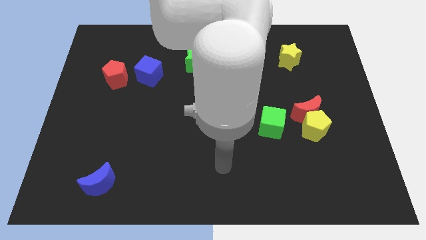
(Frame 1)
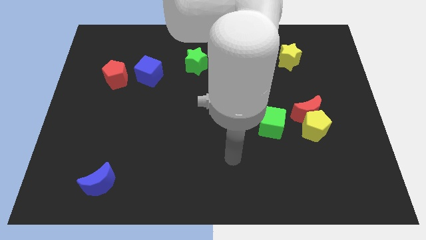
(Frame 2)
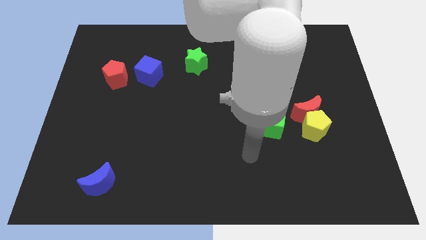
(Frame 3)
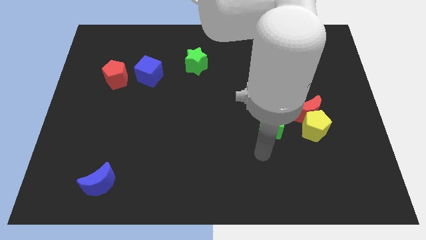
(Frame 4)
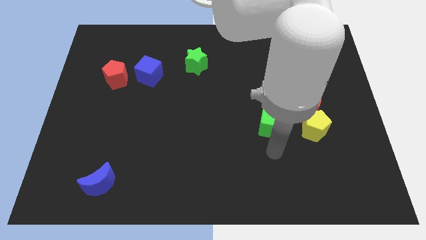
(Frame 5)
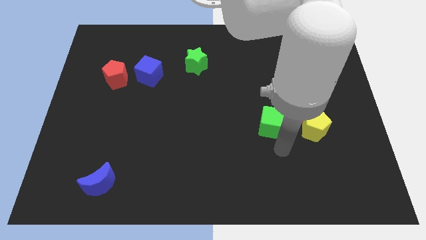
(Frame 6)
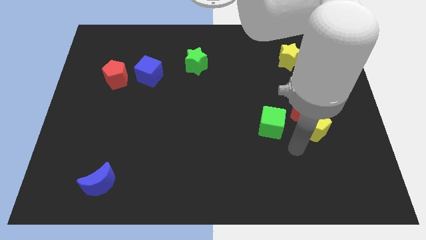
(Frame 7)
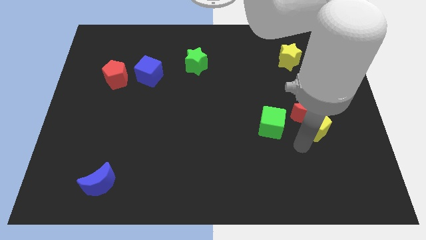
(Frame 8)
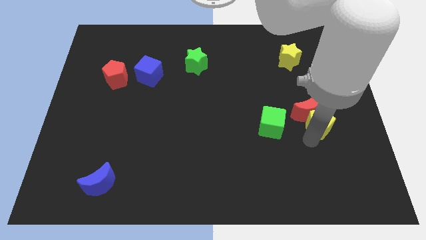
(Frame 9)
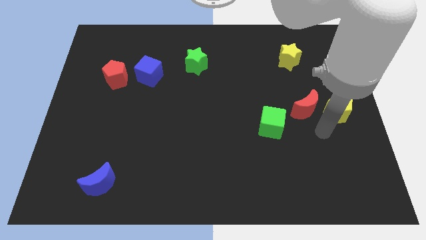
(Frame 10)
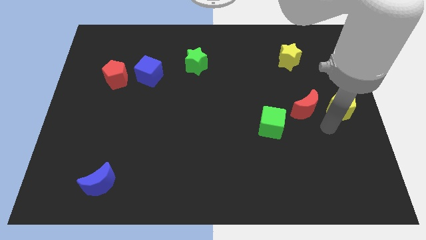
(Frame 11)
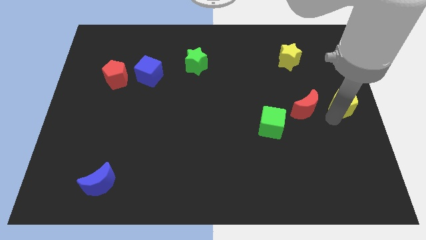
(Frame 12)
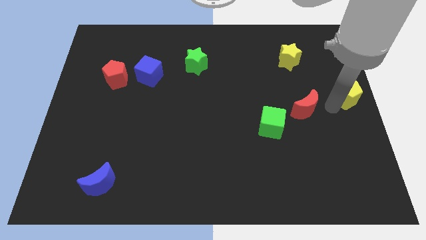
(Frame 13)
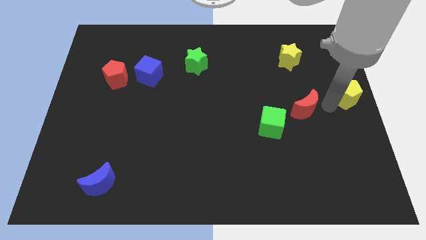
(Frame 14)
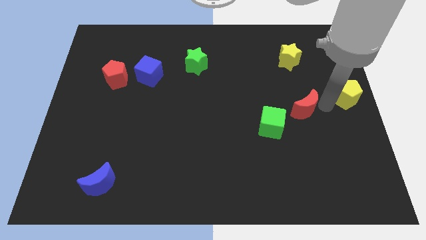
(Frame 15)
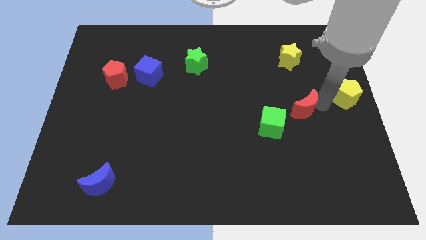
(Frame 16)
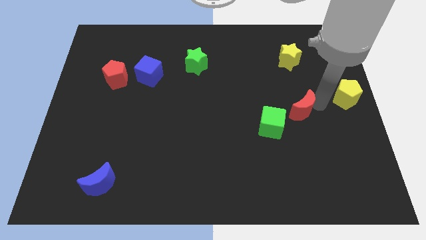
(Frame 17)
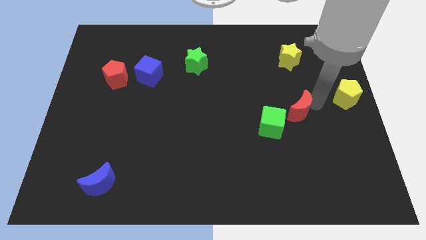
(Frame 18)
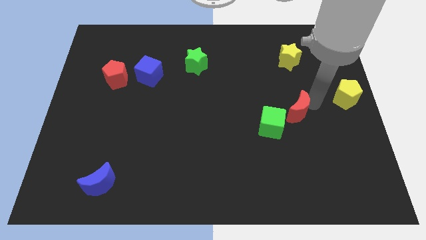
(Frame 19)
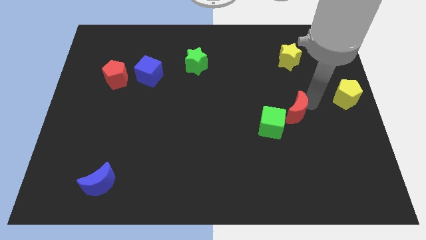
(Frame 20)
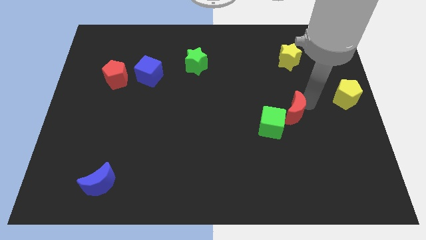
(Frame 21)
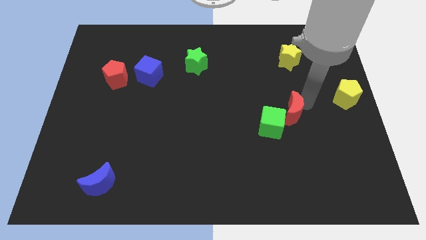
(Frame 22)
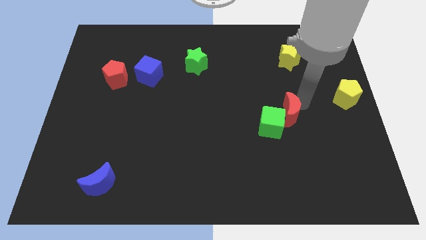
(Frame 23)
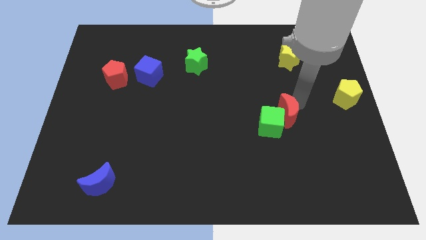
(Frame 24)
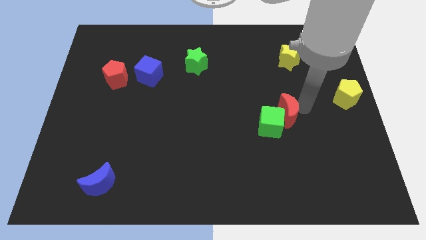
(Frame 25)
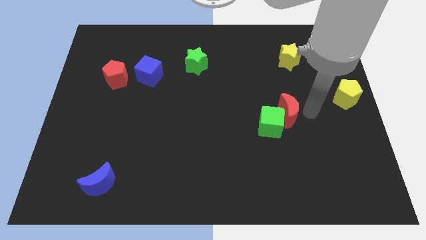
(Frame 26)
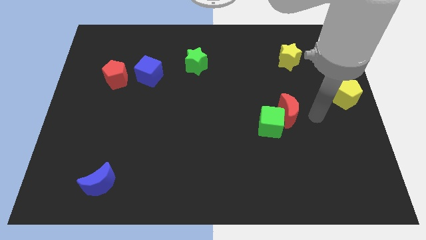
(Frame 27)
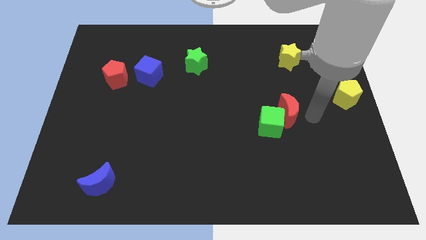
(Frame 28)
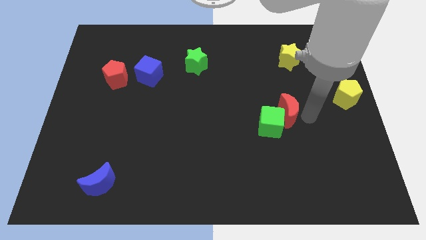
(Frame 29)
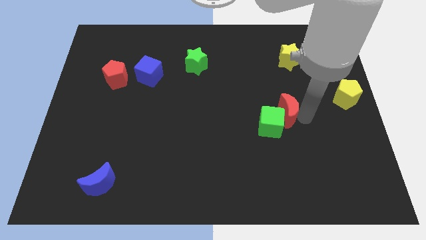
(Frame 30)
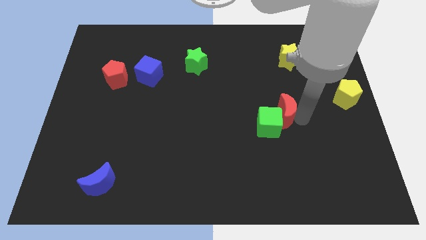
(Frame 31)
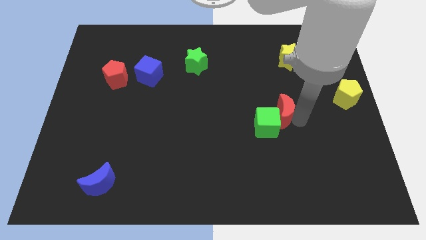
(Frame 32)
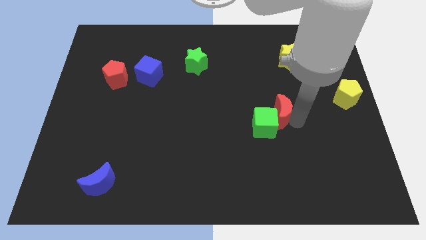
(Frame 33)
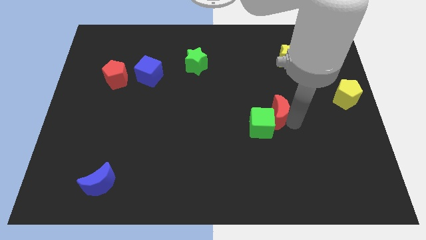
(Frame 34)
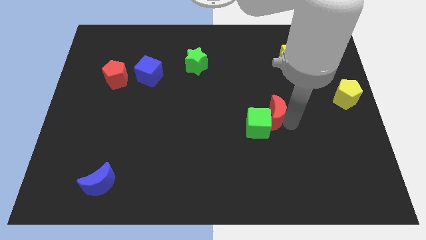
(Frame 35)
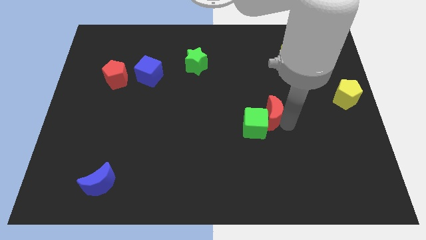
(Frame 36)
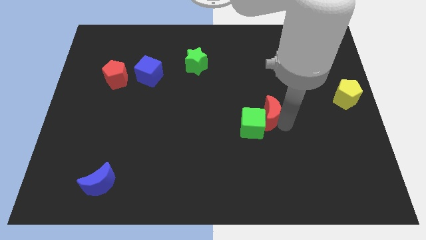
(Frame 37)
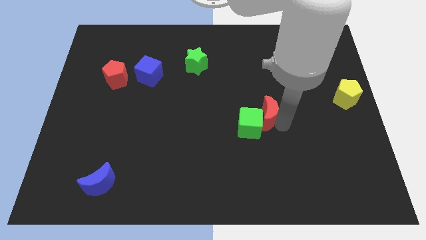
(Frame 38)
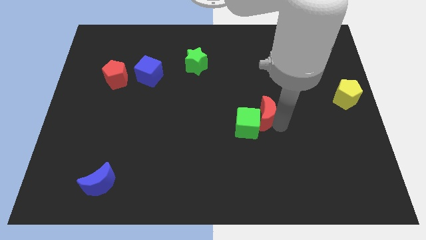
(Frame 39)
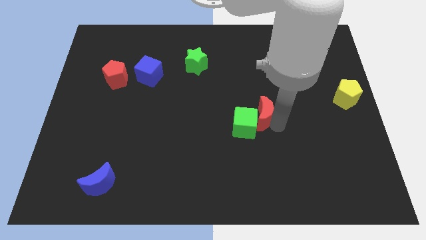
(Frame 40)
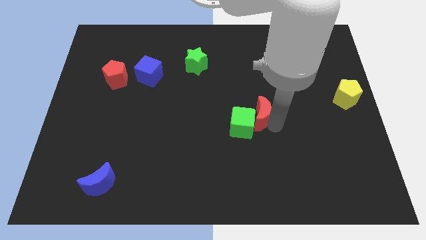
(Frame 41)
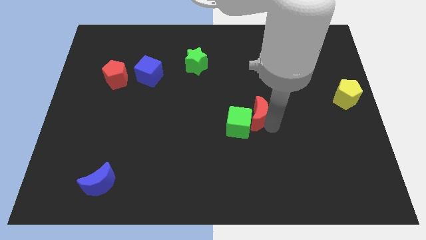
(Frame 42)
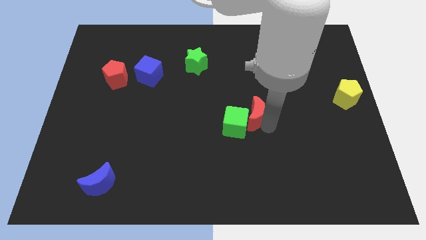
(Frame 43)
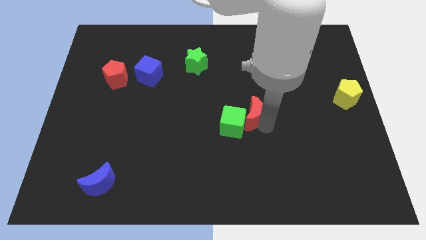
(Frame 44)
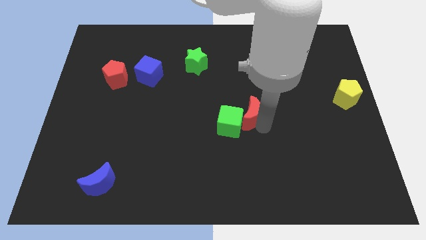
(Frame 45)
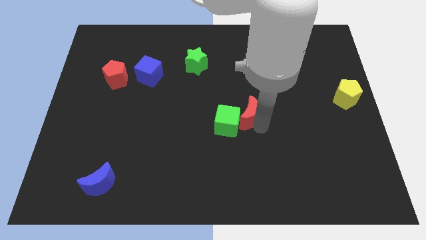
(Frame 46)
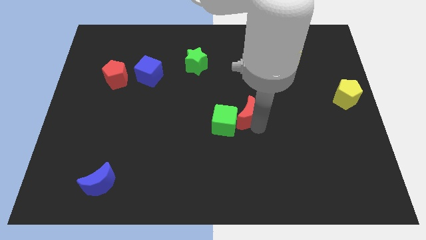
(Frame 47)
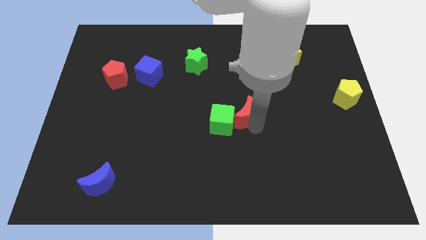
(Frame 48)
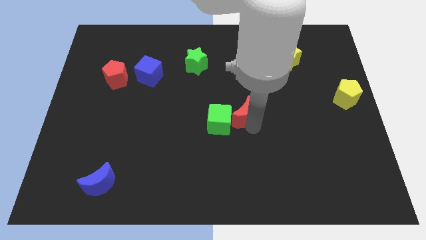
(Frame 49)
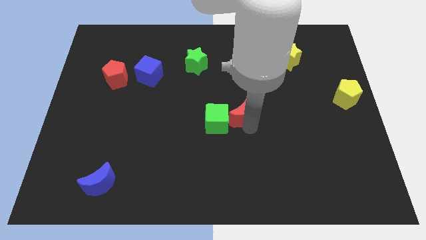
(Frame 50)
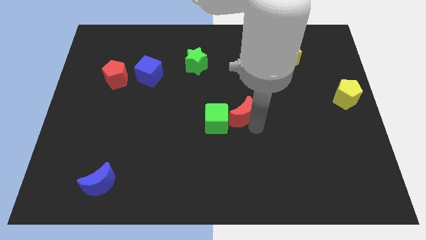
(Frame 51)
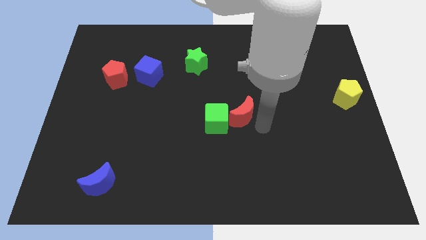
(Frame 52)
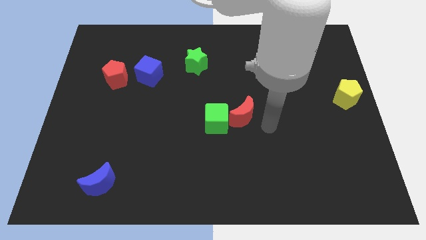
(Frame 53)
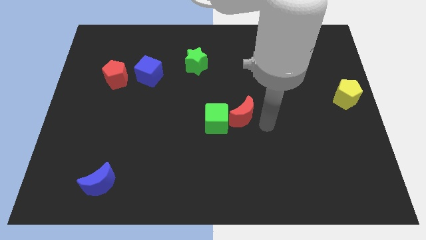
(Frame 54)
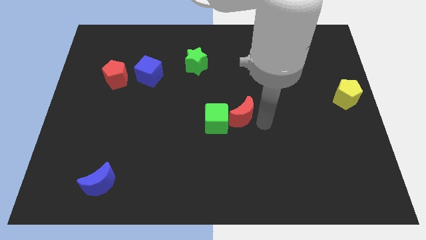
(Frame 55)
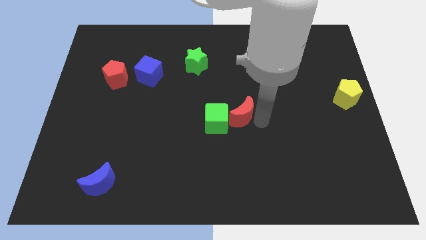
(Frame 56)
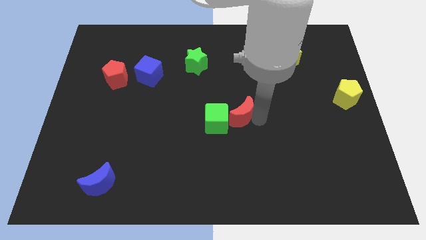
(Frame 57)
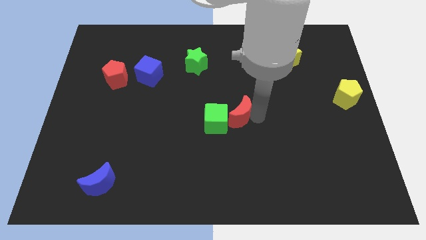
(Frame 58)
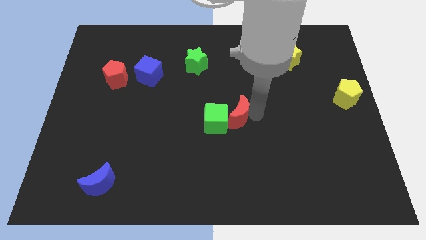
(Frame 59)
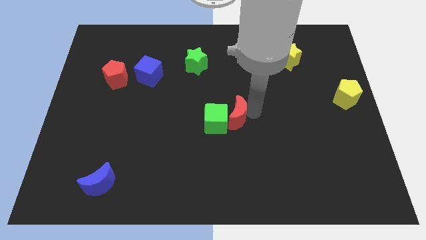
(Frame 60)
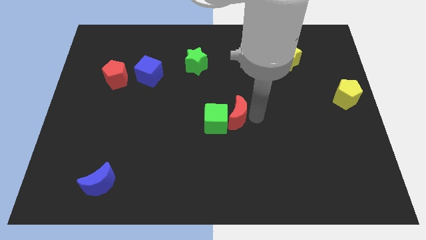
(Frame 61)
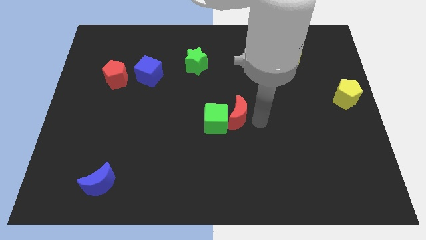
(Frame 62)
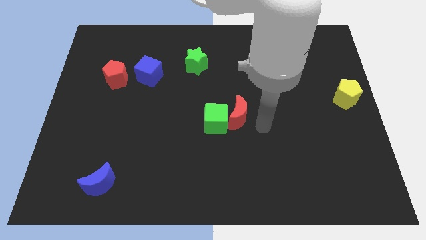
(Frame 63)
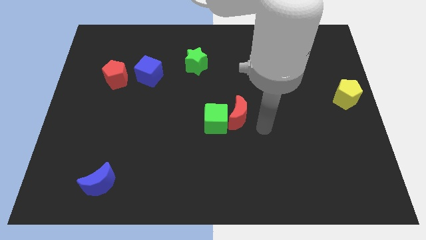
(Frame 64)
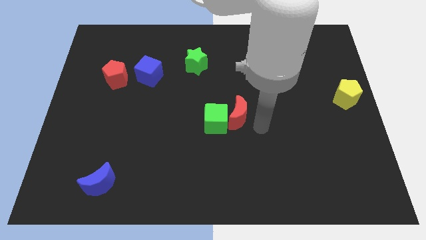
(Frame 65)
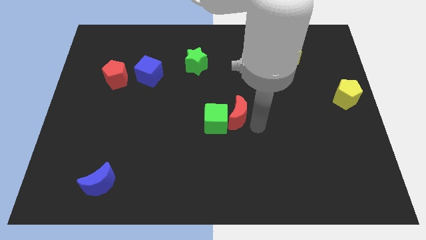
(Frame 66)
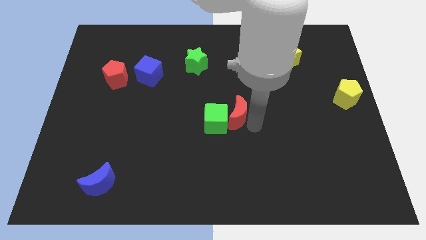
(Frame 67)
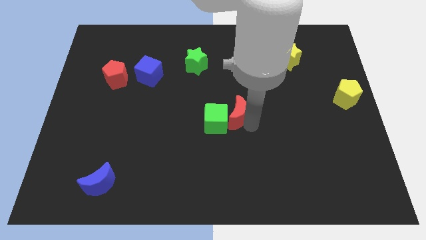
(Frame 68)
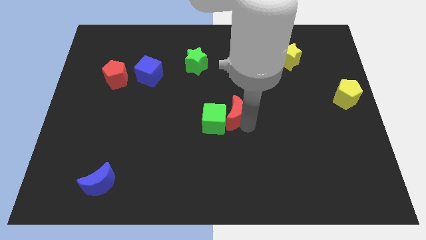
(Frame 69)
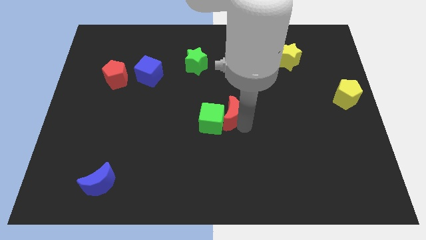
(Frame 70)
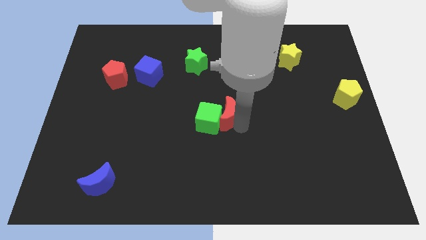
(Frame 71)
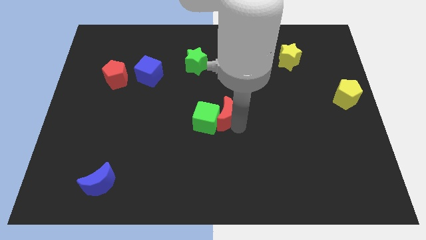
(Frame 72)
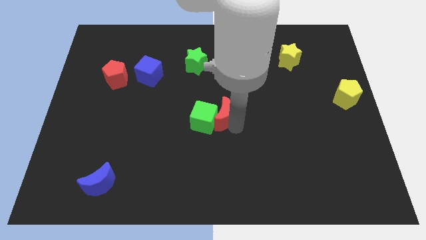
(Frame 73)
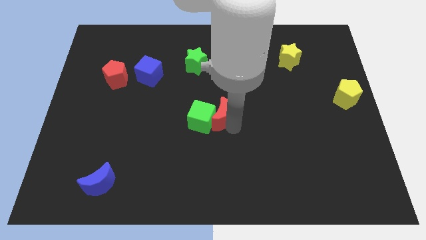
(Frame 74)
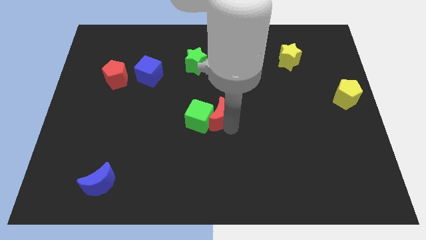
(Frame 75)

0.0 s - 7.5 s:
slide the red moon to the left

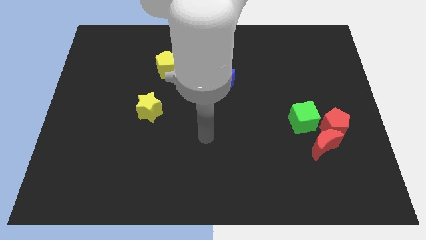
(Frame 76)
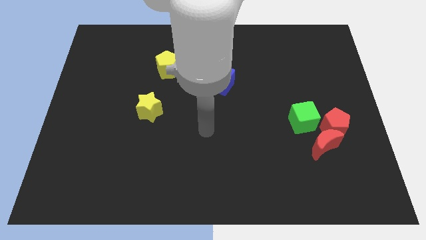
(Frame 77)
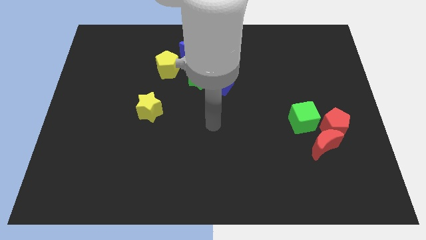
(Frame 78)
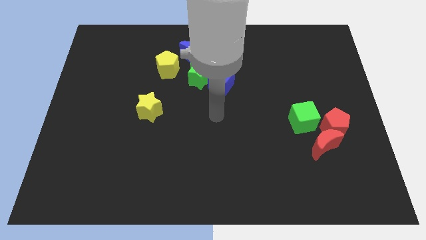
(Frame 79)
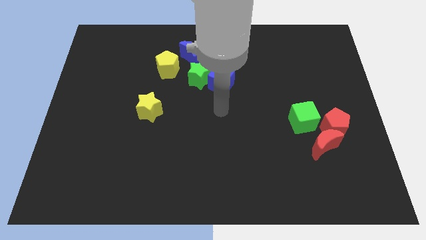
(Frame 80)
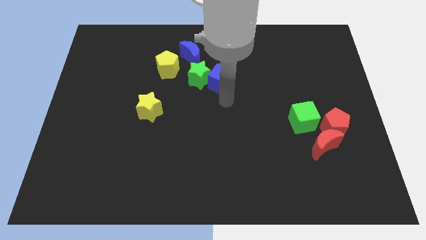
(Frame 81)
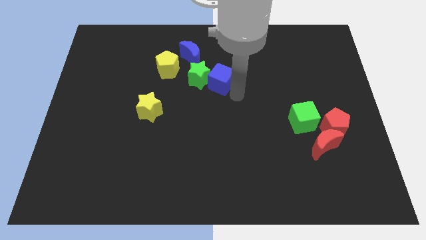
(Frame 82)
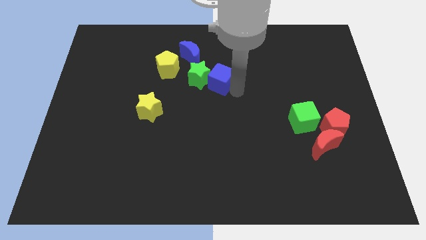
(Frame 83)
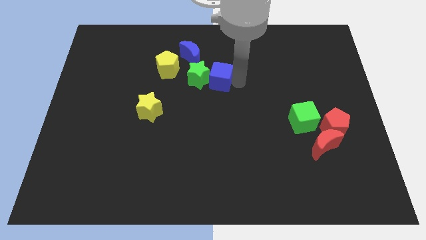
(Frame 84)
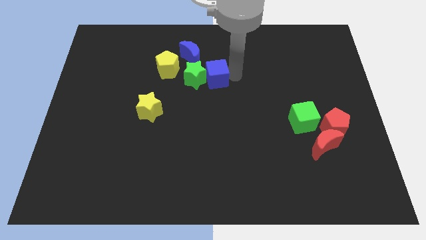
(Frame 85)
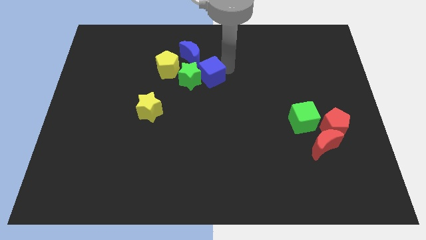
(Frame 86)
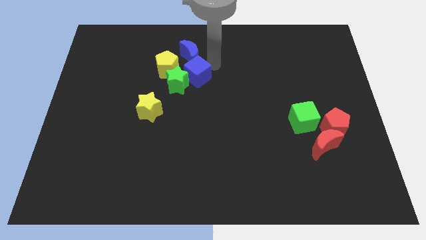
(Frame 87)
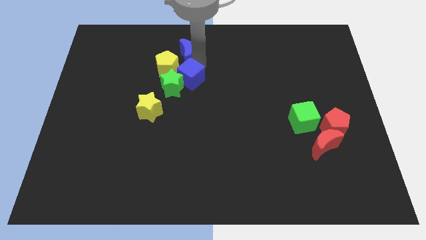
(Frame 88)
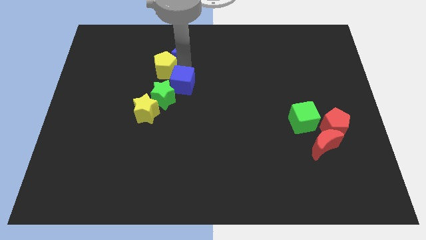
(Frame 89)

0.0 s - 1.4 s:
move the green star down and then left slightly
